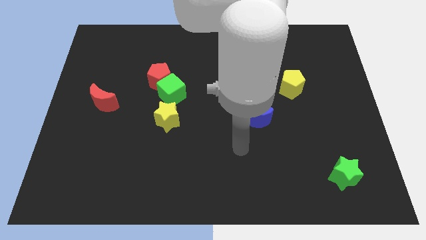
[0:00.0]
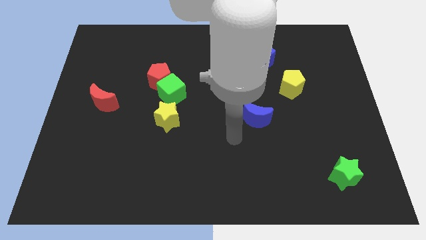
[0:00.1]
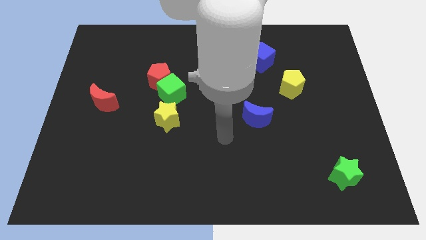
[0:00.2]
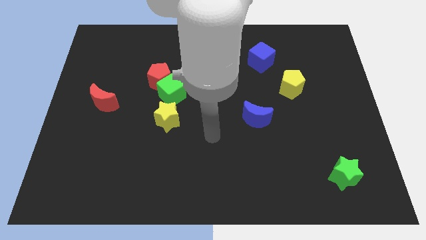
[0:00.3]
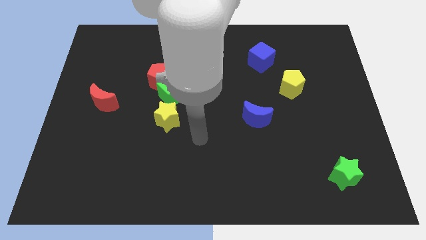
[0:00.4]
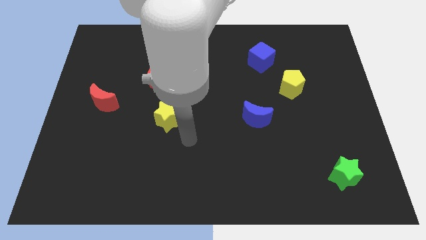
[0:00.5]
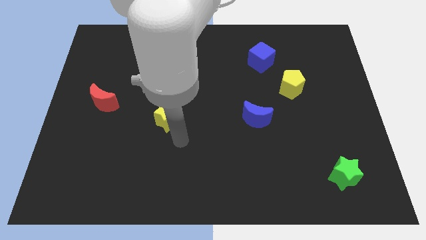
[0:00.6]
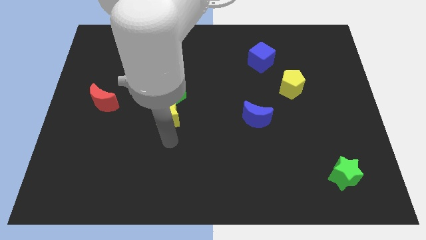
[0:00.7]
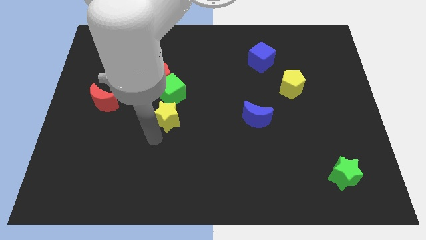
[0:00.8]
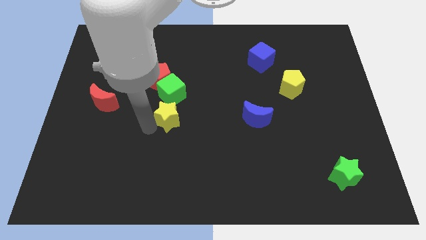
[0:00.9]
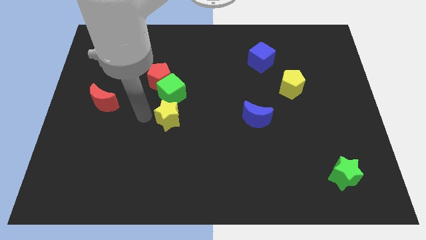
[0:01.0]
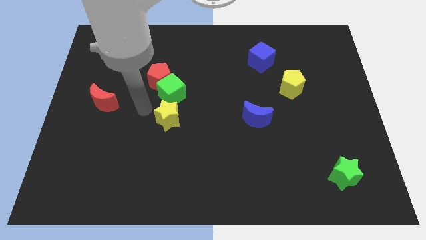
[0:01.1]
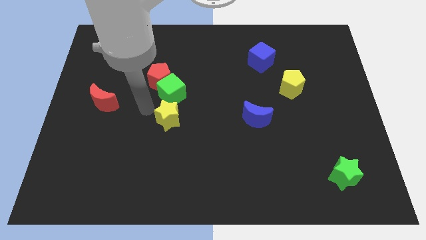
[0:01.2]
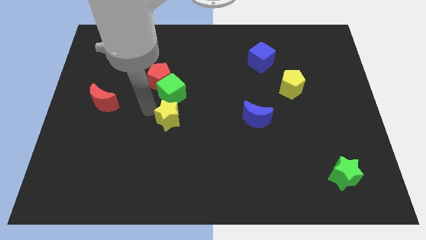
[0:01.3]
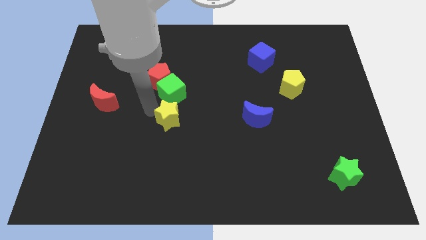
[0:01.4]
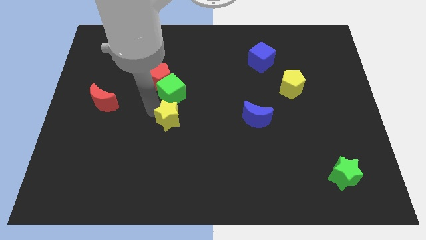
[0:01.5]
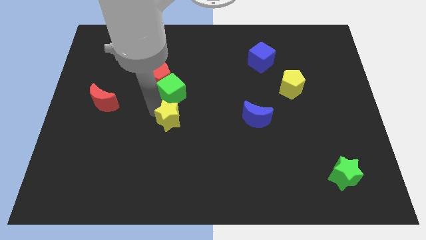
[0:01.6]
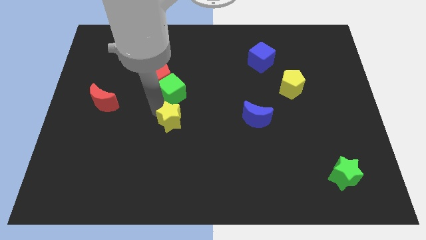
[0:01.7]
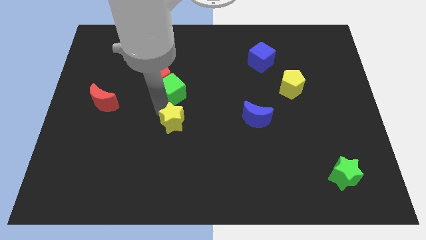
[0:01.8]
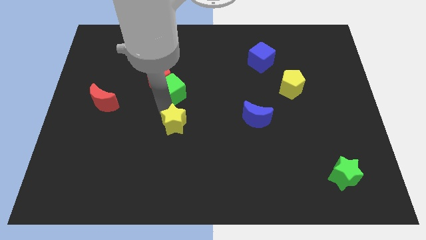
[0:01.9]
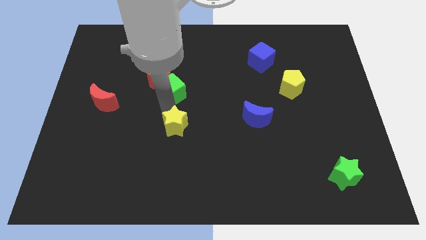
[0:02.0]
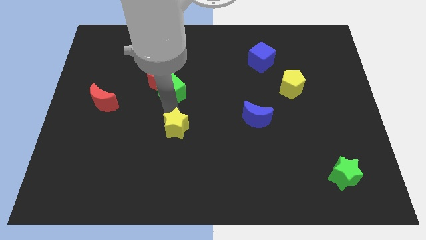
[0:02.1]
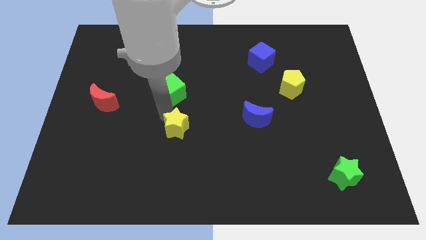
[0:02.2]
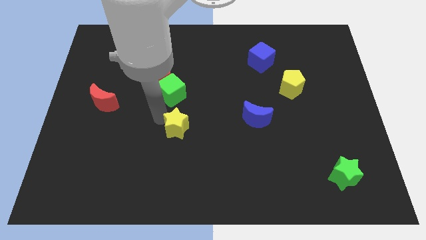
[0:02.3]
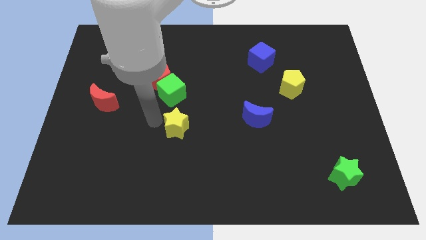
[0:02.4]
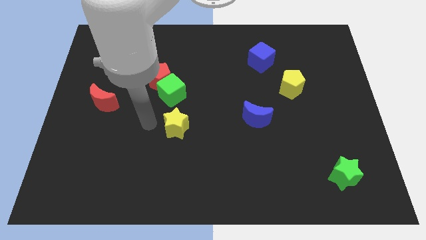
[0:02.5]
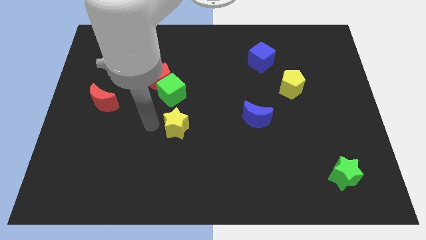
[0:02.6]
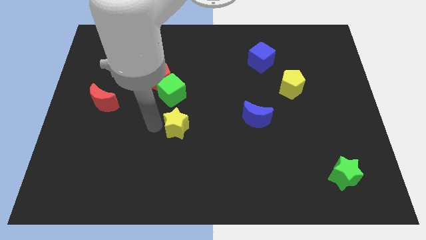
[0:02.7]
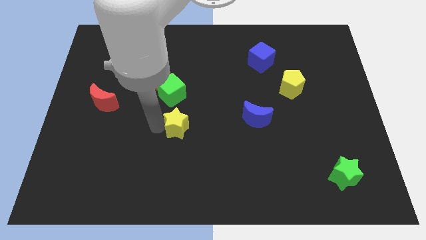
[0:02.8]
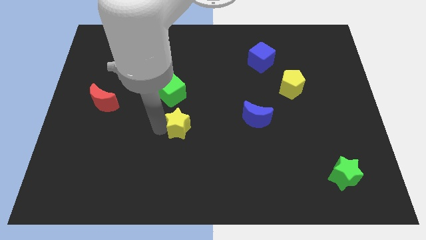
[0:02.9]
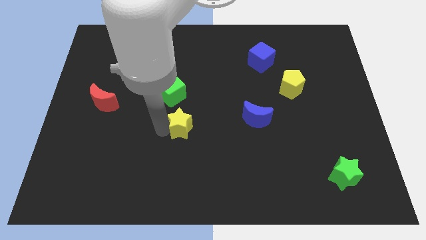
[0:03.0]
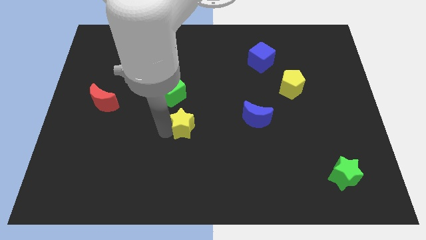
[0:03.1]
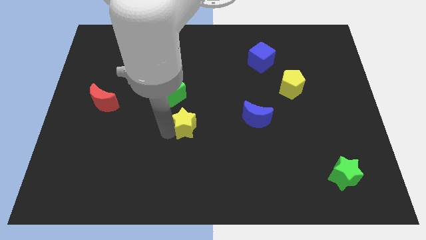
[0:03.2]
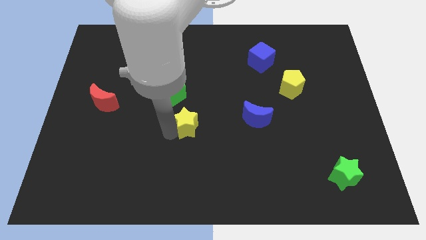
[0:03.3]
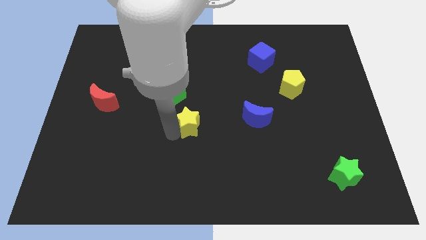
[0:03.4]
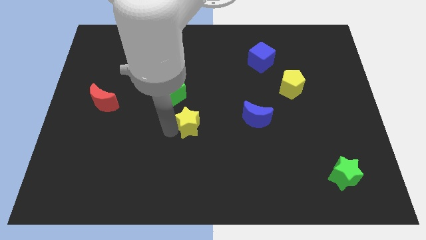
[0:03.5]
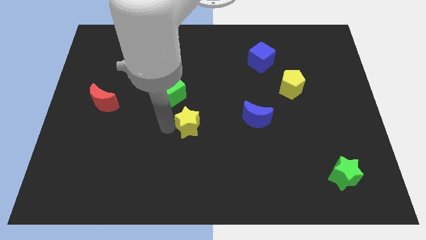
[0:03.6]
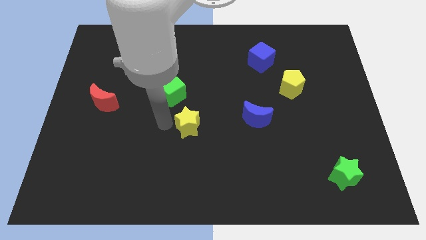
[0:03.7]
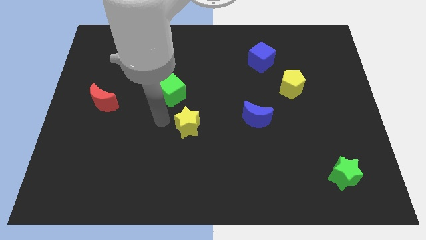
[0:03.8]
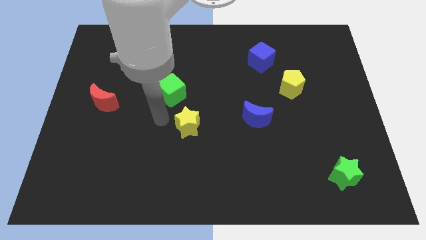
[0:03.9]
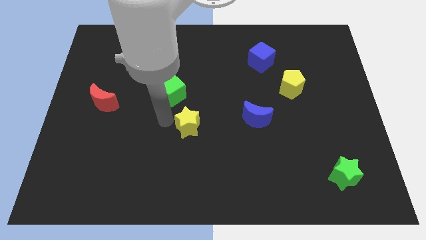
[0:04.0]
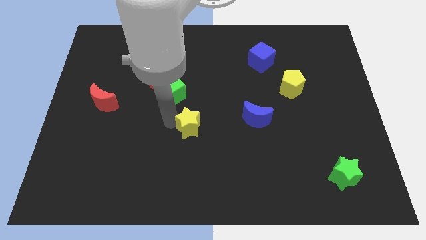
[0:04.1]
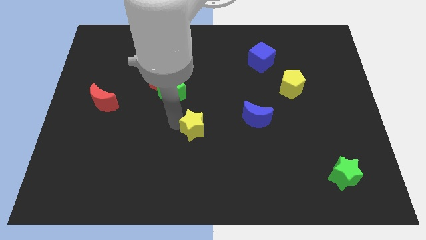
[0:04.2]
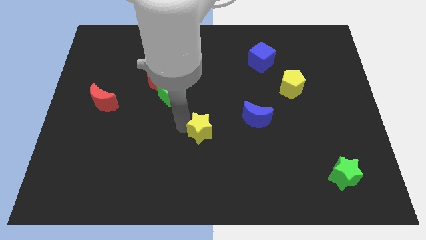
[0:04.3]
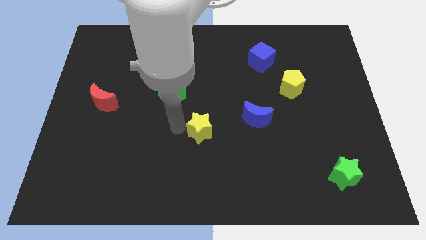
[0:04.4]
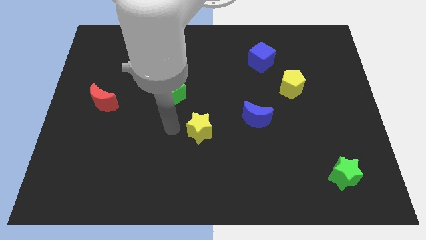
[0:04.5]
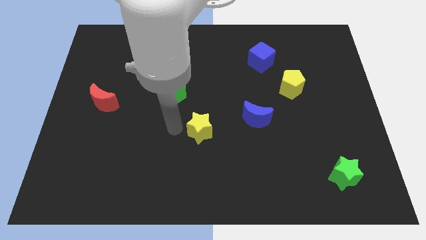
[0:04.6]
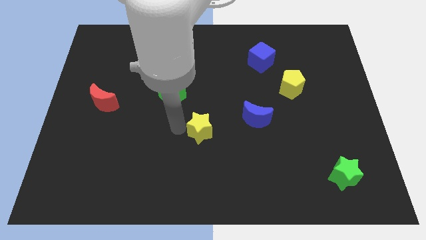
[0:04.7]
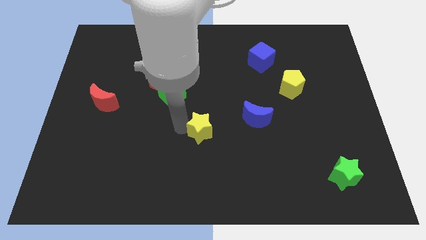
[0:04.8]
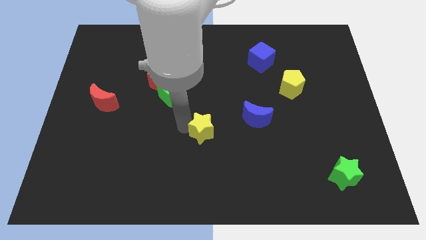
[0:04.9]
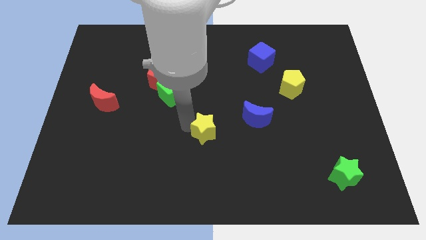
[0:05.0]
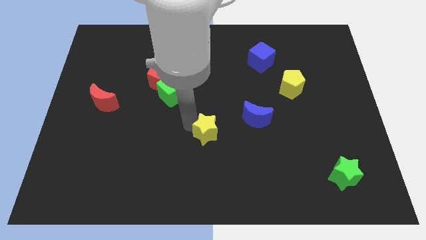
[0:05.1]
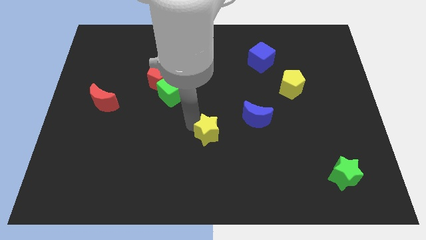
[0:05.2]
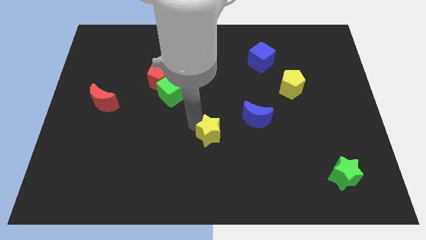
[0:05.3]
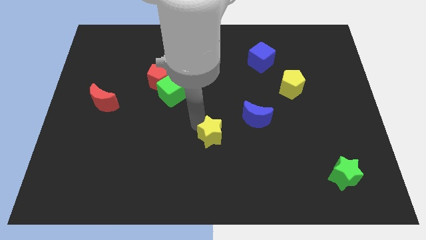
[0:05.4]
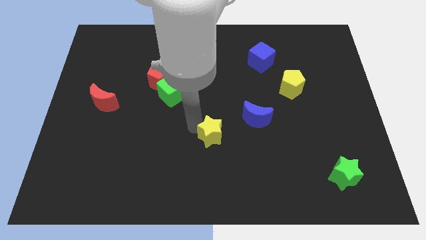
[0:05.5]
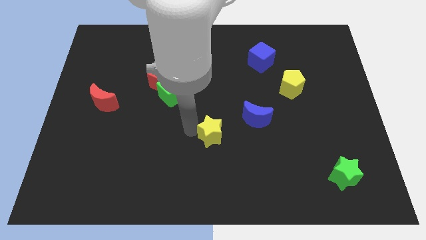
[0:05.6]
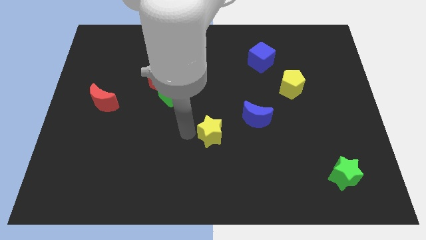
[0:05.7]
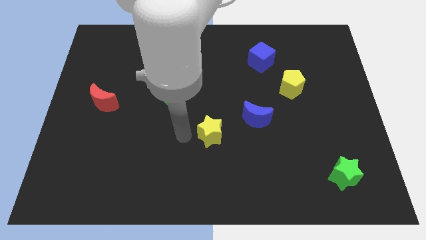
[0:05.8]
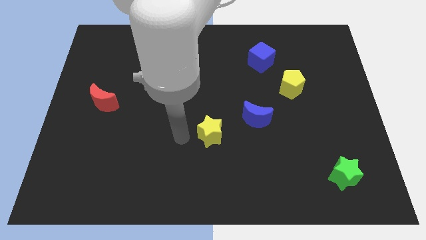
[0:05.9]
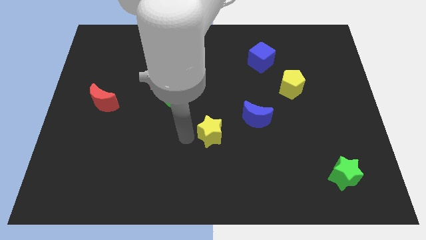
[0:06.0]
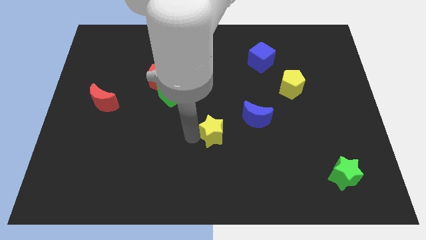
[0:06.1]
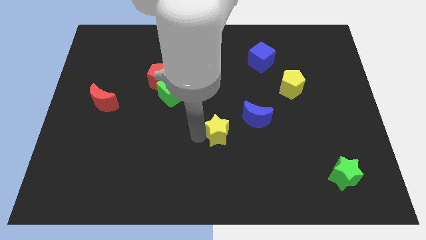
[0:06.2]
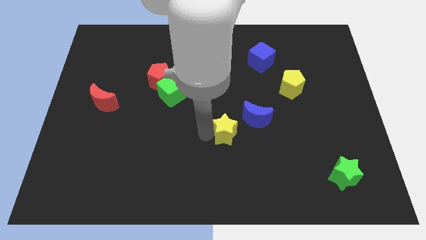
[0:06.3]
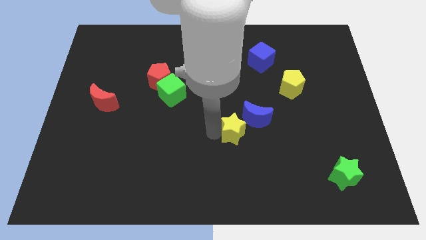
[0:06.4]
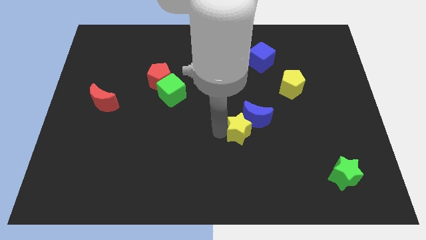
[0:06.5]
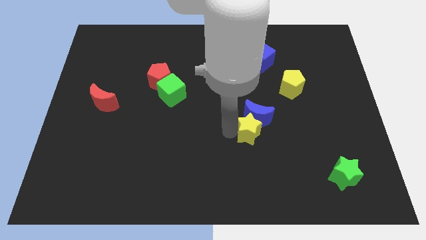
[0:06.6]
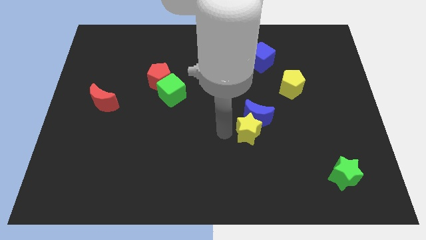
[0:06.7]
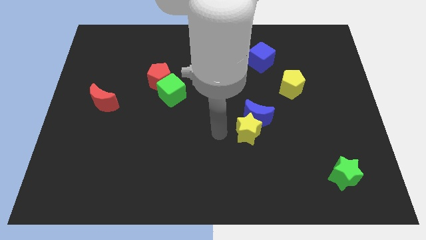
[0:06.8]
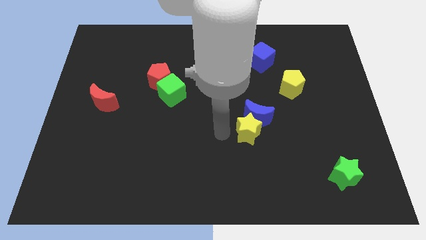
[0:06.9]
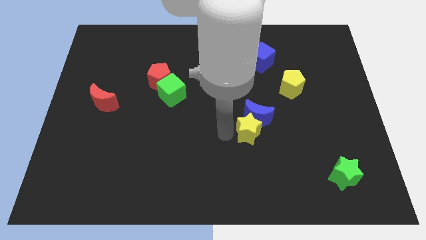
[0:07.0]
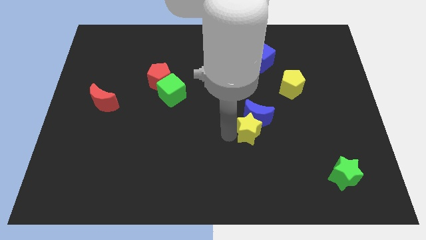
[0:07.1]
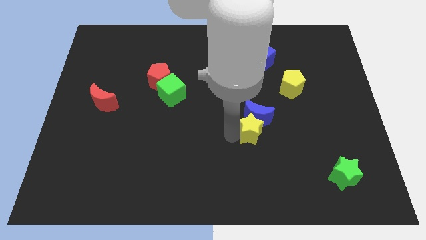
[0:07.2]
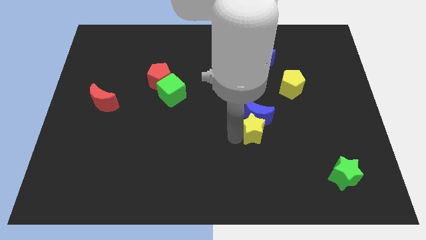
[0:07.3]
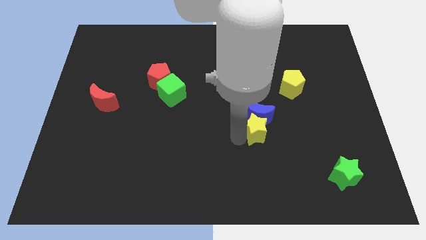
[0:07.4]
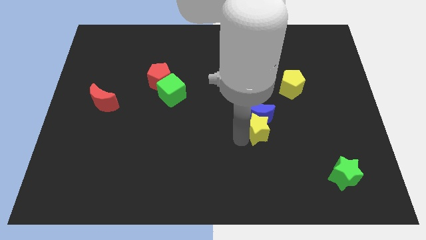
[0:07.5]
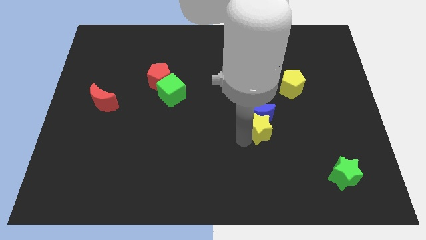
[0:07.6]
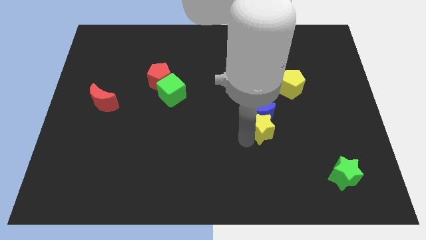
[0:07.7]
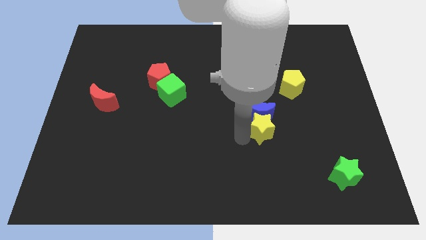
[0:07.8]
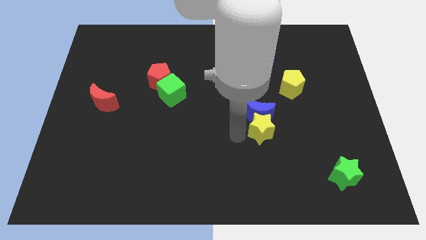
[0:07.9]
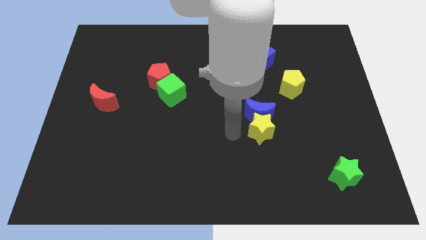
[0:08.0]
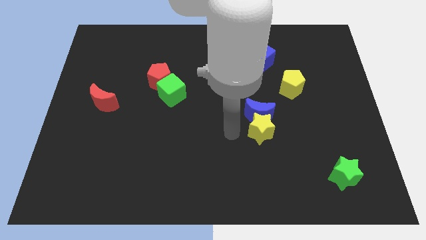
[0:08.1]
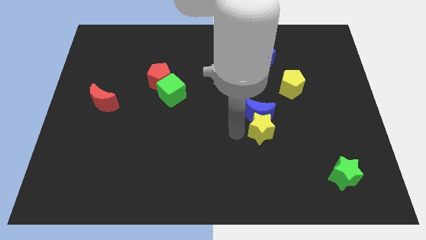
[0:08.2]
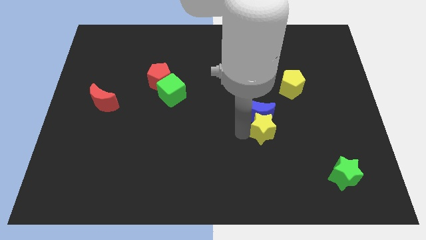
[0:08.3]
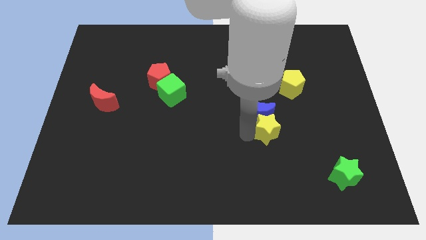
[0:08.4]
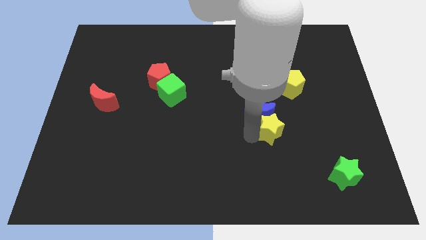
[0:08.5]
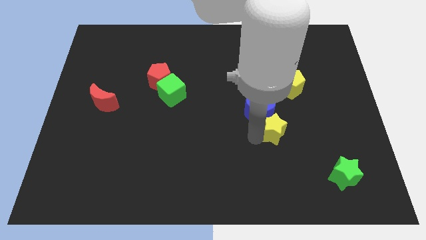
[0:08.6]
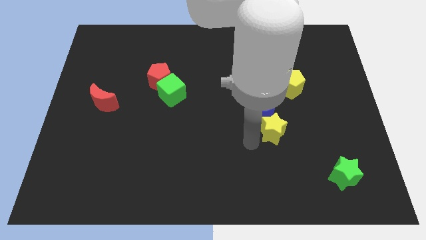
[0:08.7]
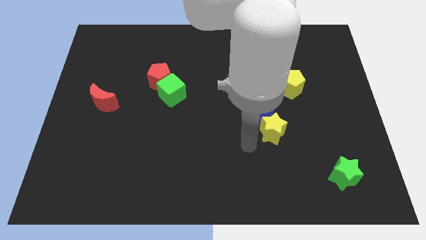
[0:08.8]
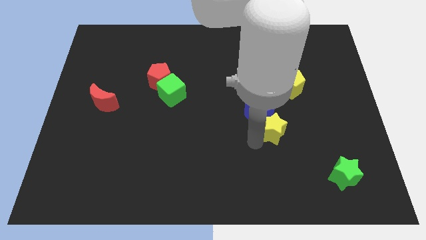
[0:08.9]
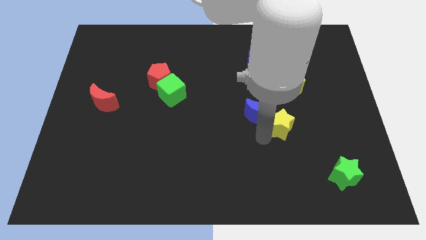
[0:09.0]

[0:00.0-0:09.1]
put the yellow star to the right of the blue moon
